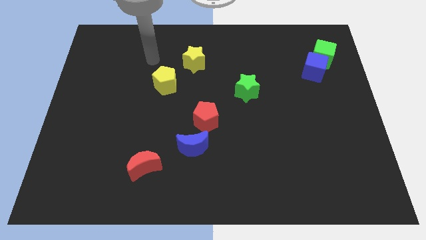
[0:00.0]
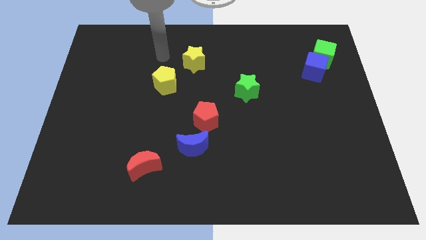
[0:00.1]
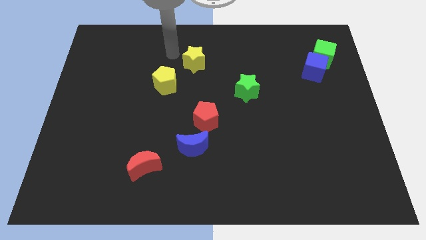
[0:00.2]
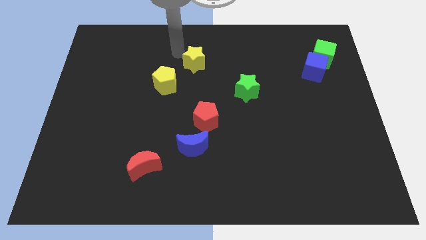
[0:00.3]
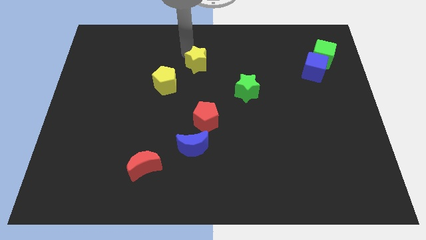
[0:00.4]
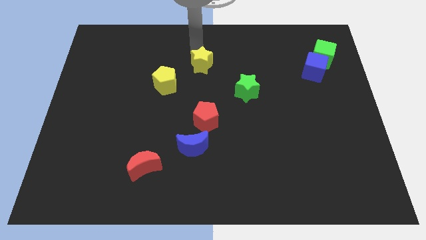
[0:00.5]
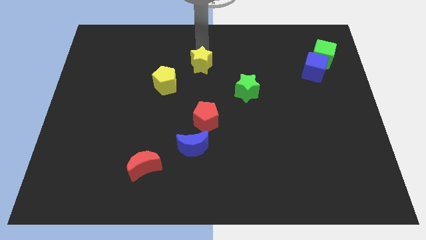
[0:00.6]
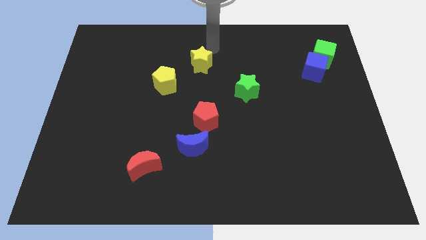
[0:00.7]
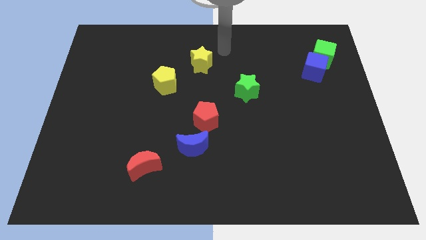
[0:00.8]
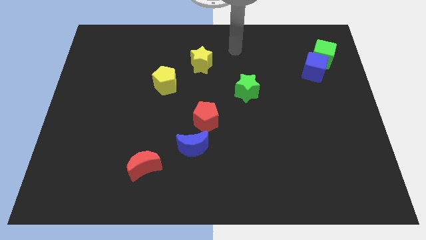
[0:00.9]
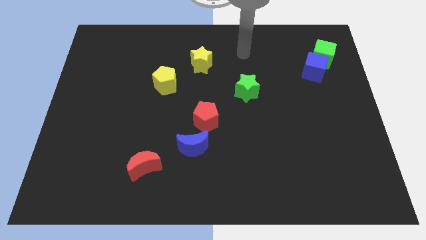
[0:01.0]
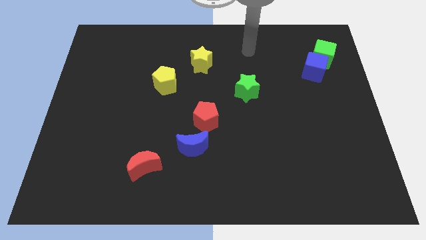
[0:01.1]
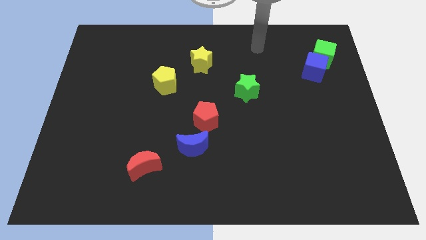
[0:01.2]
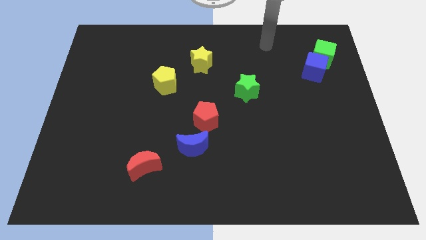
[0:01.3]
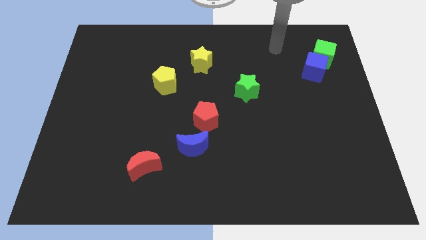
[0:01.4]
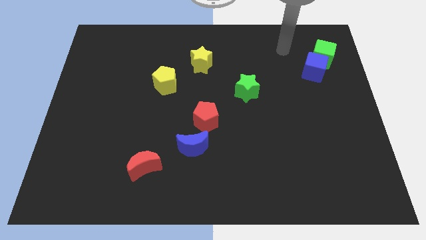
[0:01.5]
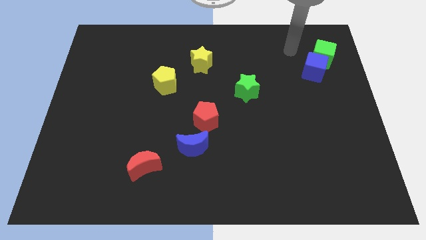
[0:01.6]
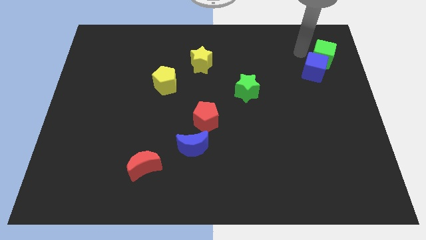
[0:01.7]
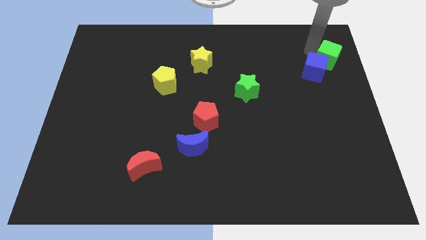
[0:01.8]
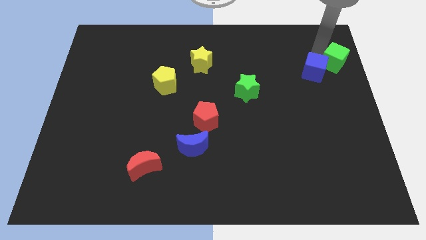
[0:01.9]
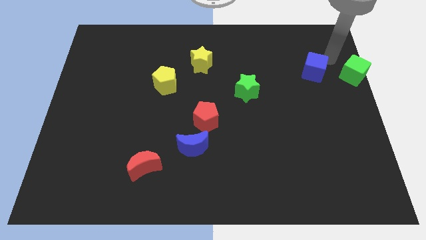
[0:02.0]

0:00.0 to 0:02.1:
move the blue cube away from the green cube

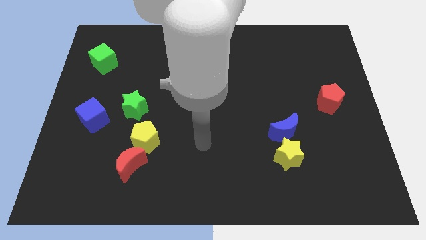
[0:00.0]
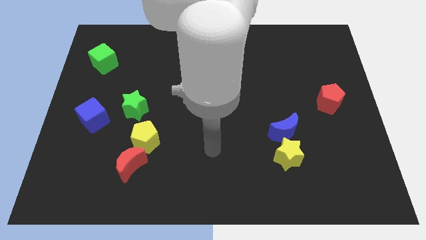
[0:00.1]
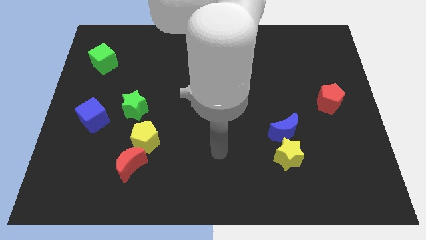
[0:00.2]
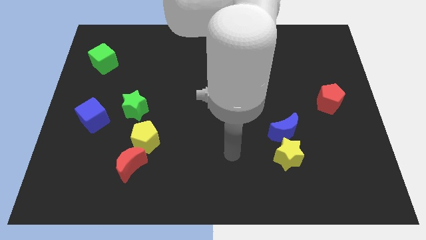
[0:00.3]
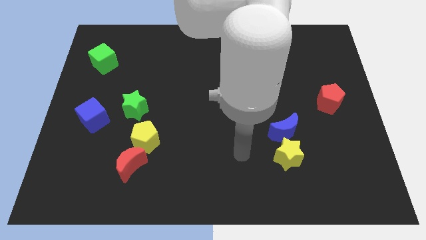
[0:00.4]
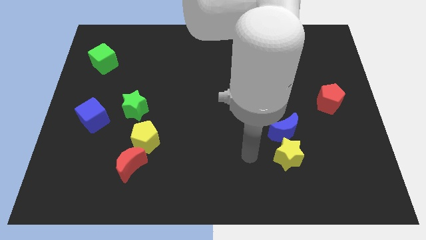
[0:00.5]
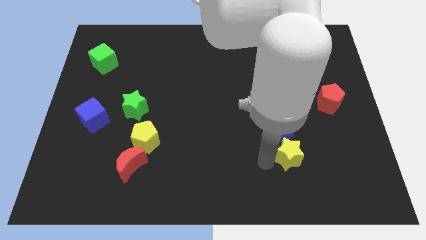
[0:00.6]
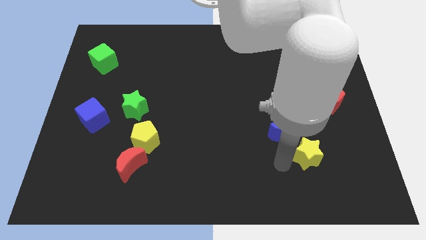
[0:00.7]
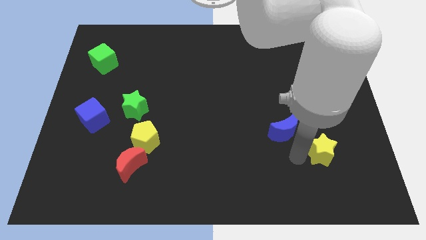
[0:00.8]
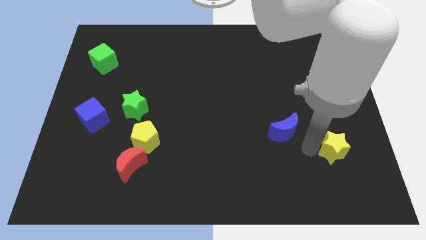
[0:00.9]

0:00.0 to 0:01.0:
pull the blue moon apart from the yellow star

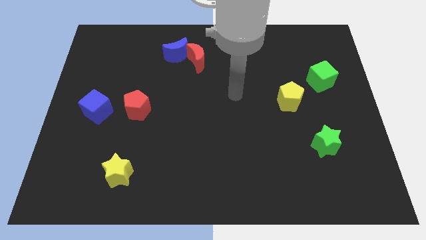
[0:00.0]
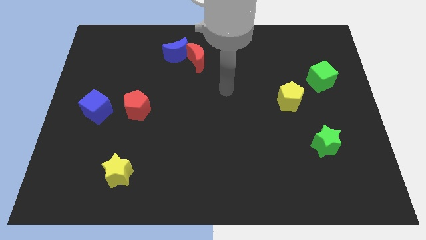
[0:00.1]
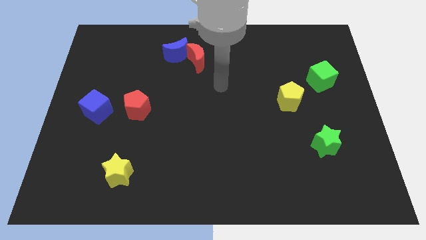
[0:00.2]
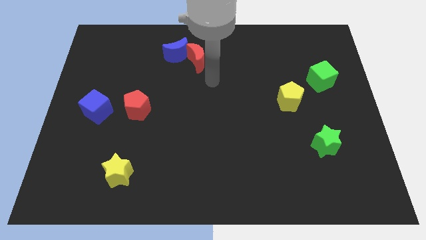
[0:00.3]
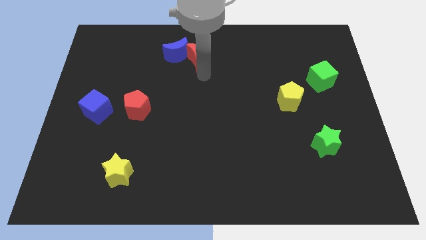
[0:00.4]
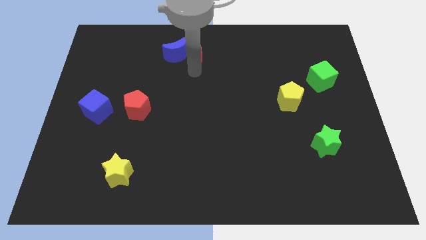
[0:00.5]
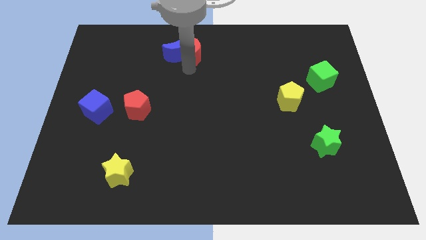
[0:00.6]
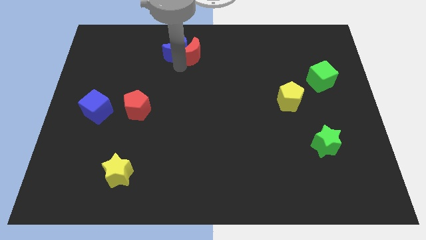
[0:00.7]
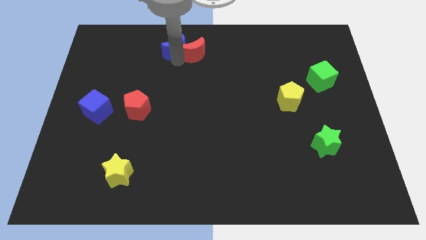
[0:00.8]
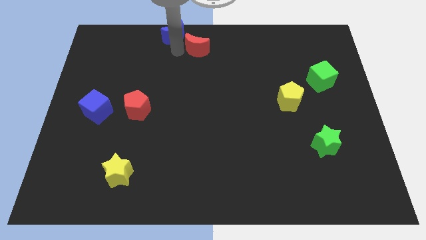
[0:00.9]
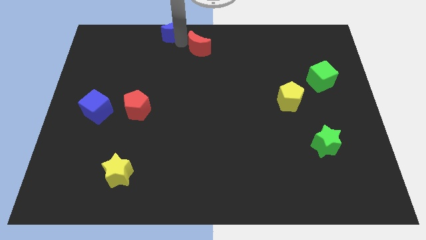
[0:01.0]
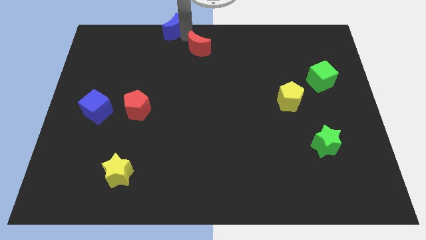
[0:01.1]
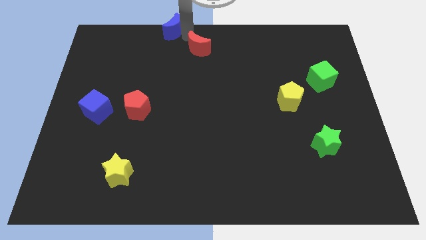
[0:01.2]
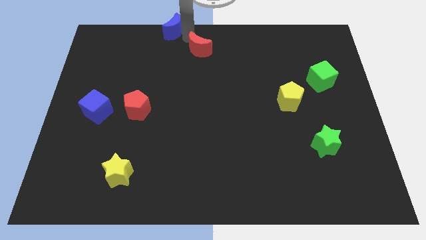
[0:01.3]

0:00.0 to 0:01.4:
separate the red moon from the blue moon

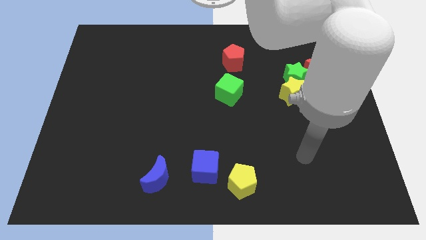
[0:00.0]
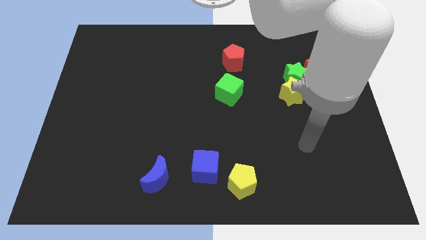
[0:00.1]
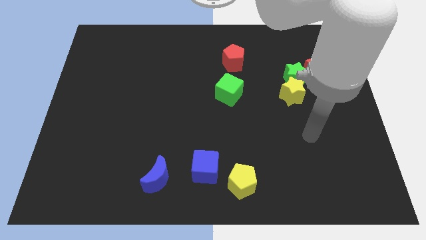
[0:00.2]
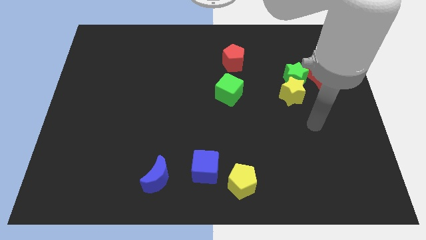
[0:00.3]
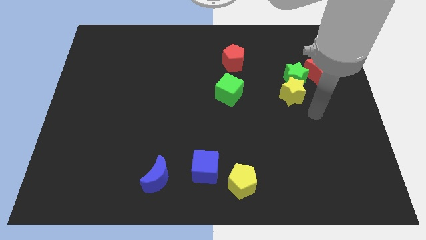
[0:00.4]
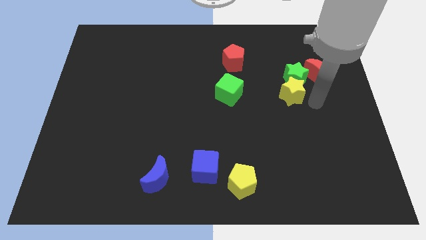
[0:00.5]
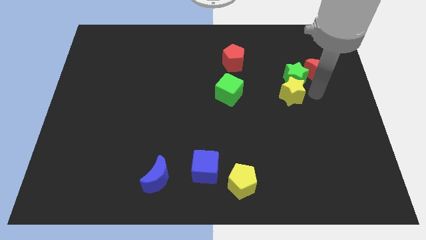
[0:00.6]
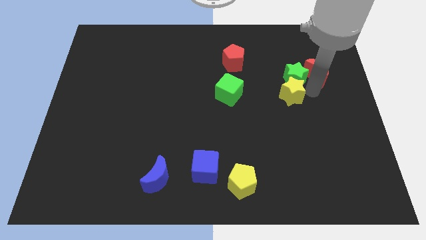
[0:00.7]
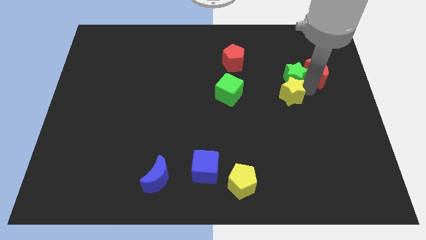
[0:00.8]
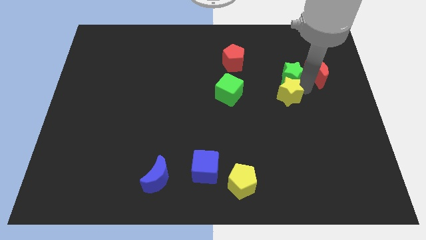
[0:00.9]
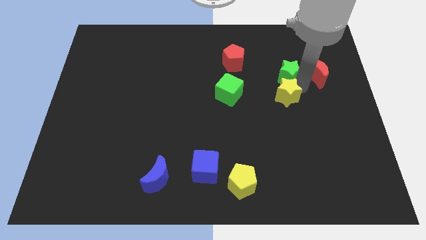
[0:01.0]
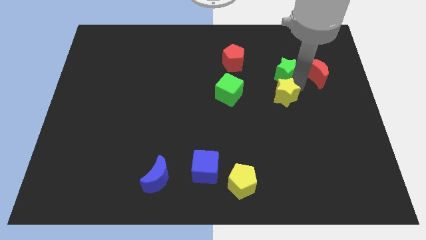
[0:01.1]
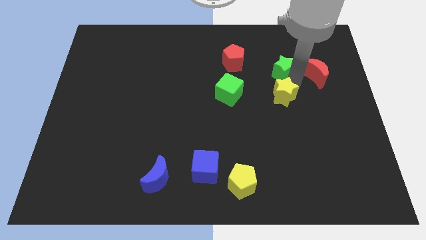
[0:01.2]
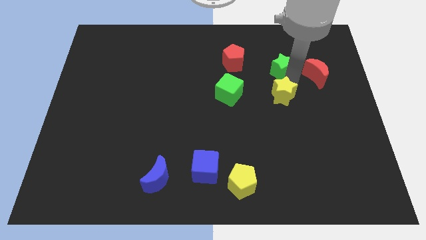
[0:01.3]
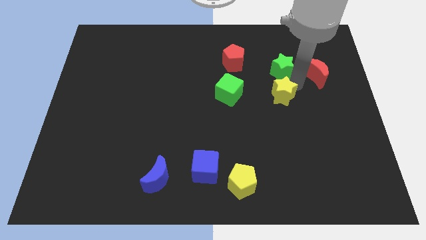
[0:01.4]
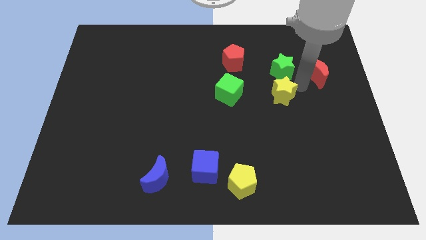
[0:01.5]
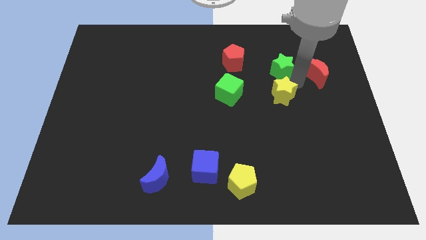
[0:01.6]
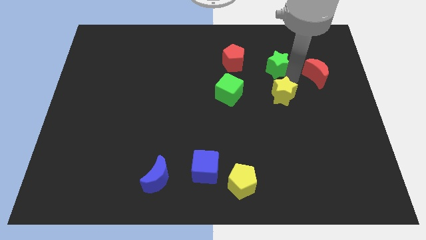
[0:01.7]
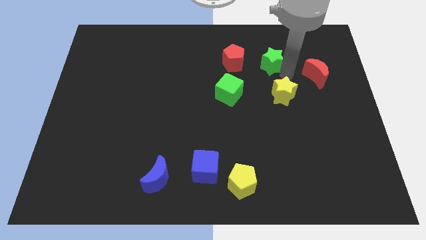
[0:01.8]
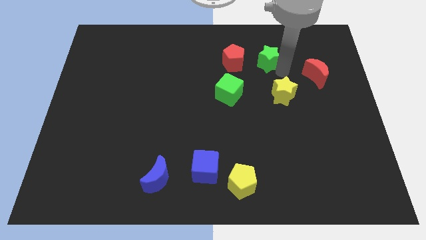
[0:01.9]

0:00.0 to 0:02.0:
move the green star away from the yellow star and red moon

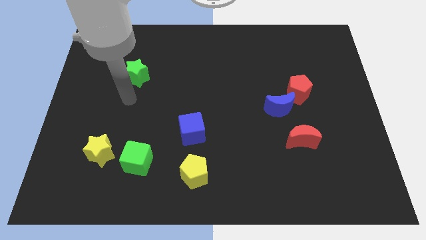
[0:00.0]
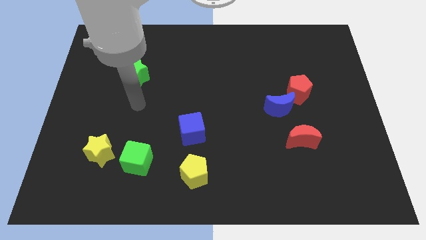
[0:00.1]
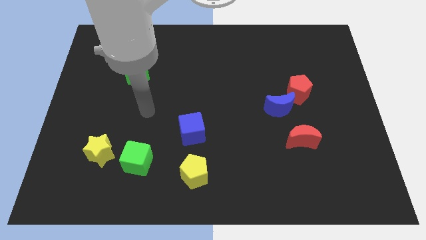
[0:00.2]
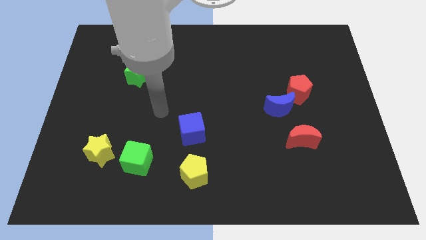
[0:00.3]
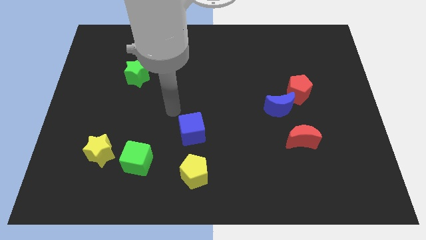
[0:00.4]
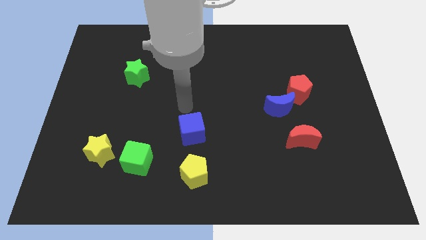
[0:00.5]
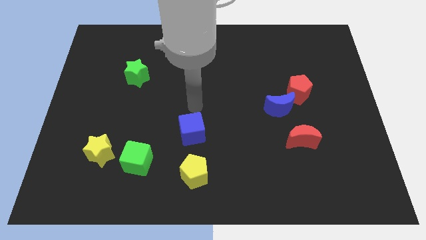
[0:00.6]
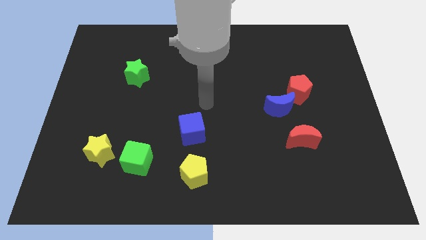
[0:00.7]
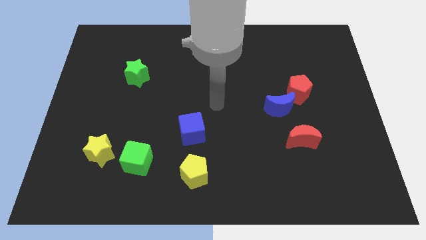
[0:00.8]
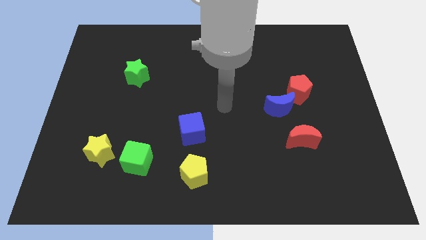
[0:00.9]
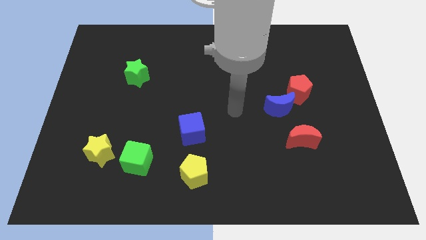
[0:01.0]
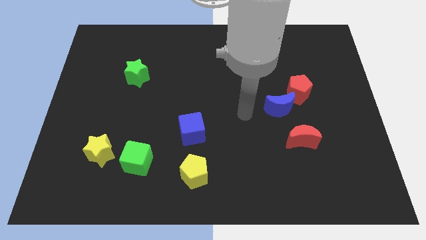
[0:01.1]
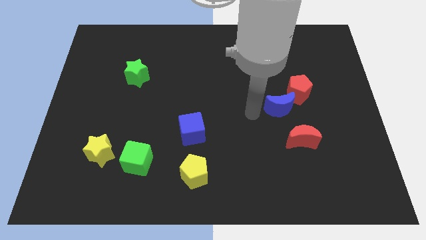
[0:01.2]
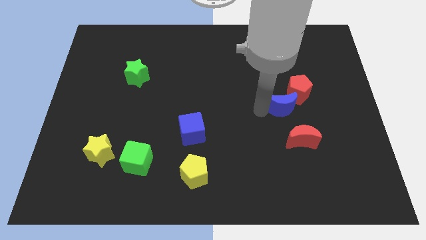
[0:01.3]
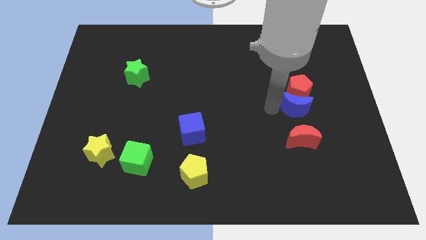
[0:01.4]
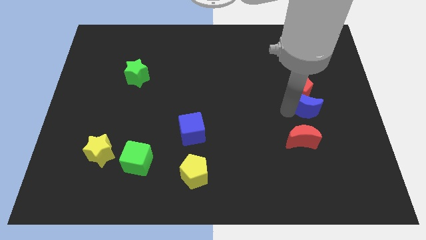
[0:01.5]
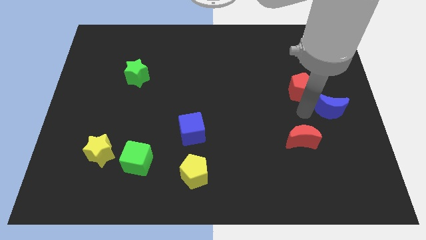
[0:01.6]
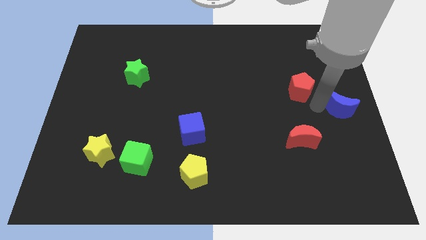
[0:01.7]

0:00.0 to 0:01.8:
move the red pentagon away from the blue moon

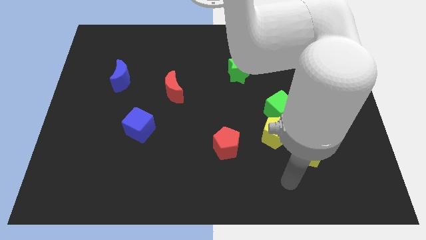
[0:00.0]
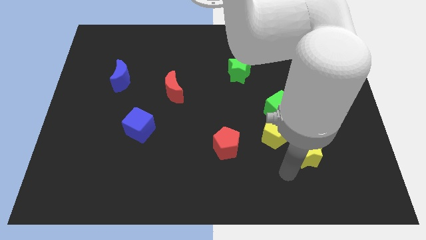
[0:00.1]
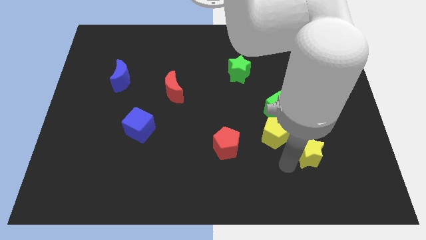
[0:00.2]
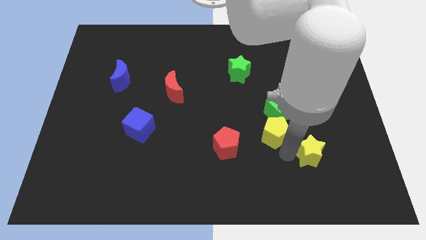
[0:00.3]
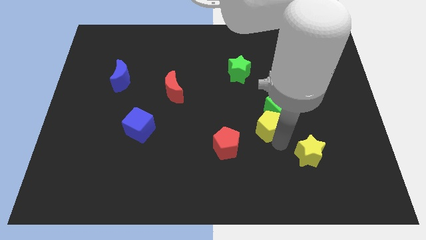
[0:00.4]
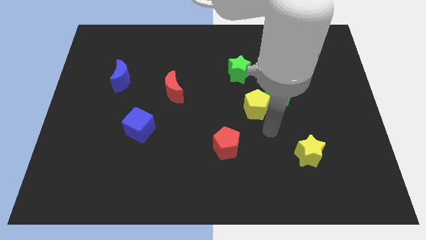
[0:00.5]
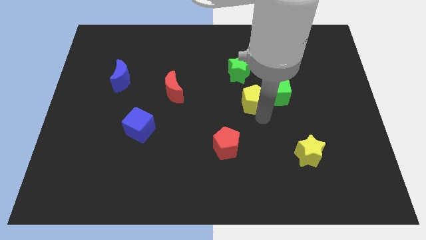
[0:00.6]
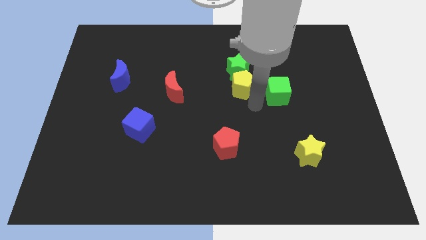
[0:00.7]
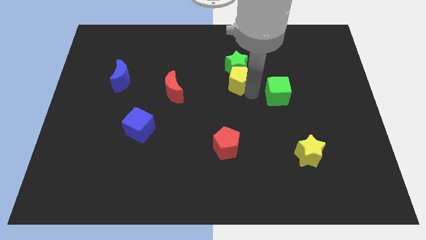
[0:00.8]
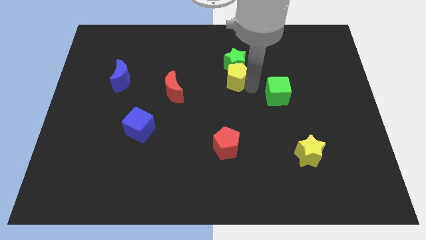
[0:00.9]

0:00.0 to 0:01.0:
move the green cube away from the yellow pentagon

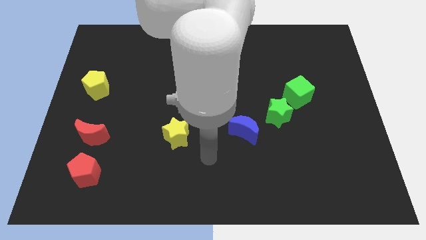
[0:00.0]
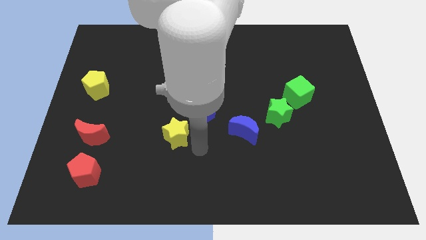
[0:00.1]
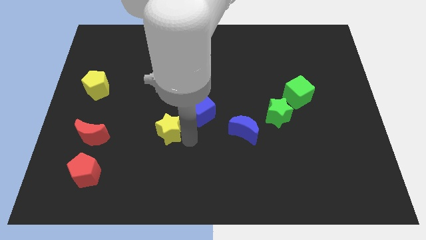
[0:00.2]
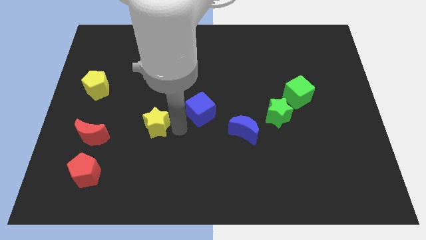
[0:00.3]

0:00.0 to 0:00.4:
pull the blue cube apart from the yellow star
